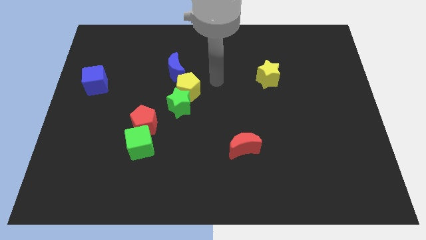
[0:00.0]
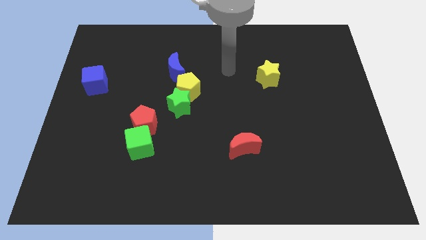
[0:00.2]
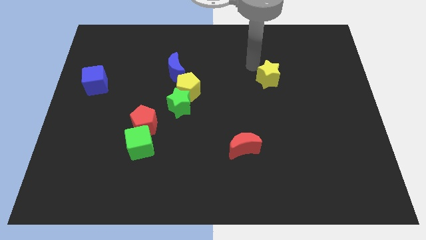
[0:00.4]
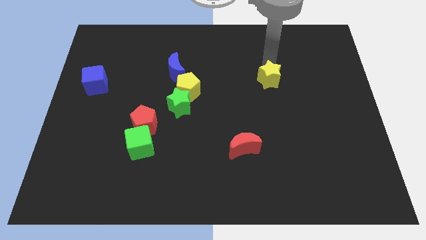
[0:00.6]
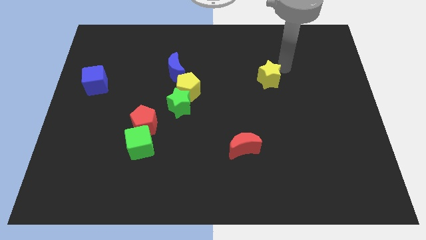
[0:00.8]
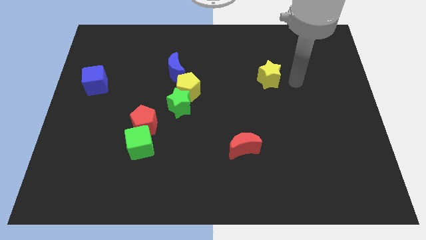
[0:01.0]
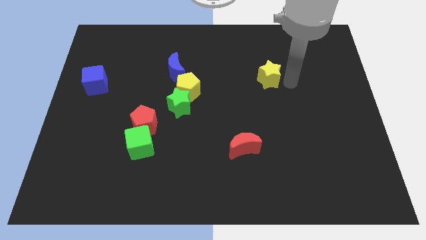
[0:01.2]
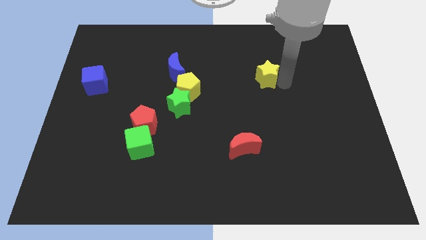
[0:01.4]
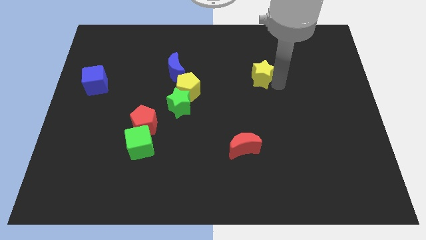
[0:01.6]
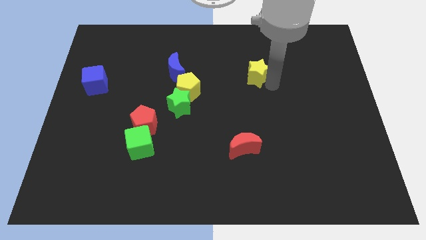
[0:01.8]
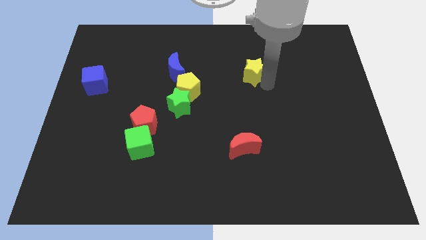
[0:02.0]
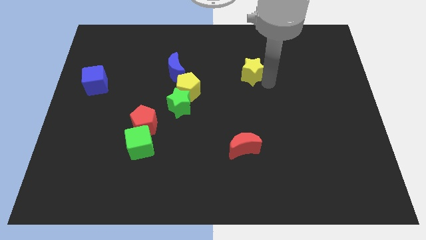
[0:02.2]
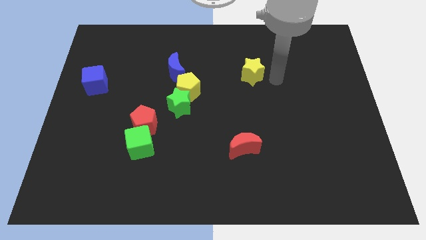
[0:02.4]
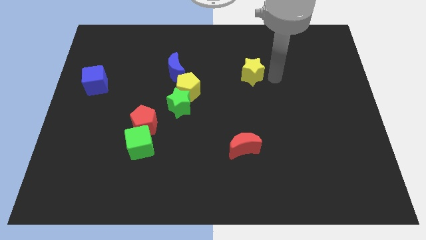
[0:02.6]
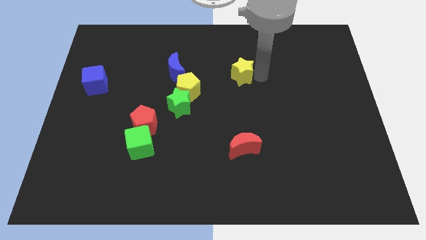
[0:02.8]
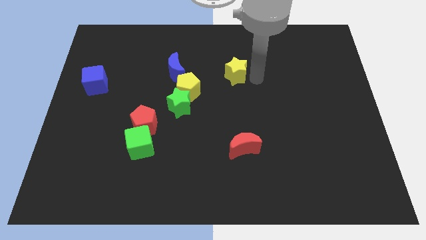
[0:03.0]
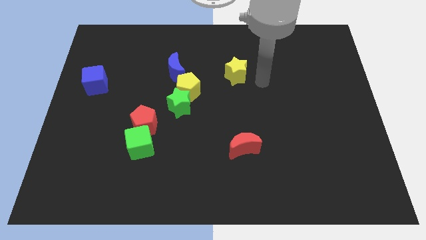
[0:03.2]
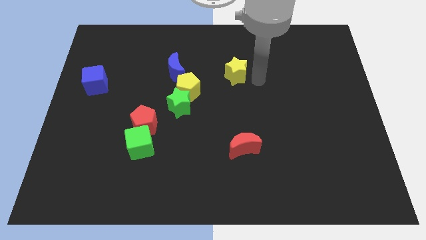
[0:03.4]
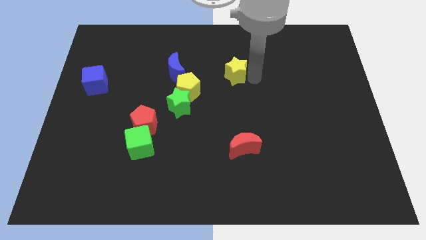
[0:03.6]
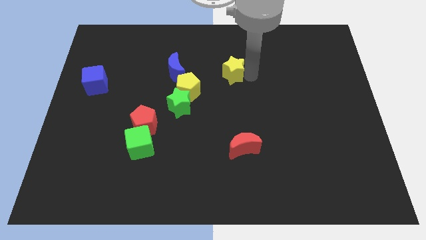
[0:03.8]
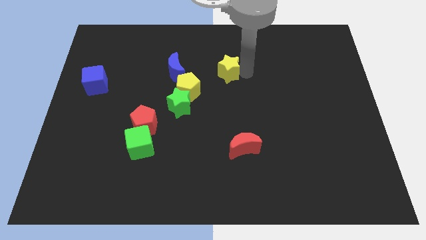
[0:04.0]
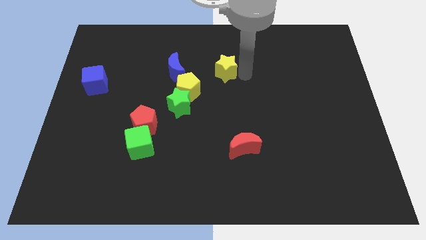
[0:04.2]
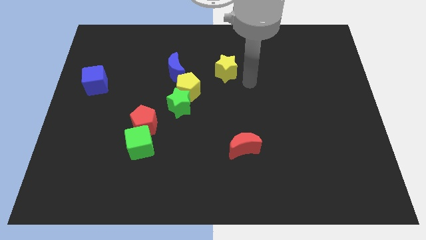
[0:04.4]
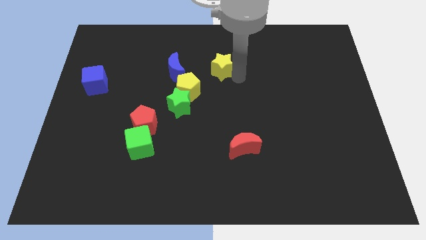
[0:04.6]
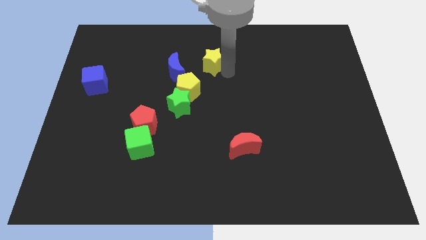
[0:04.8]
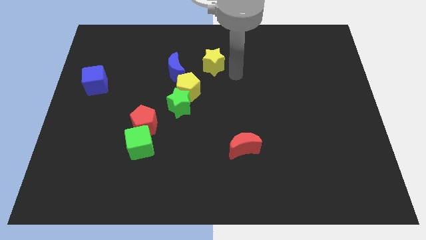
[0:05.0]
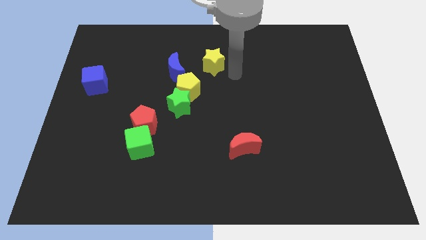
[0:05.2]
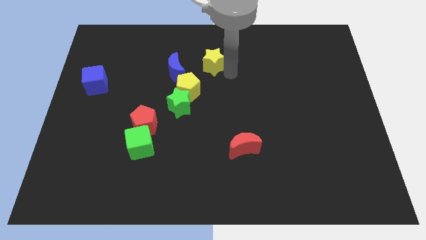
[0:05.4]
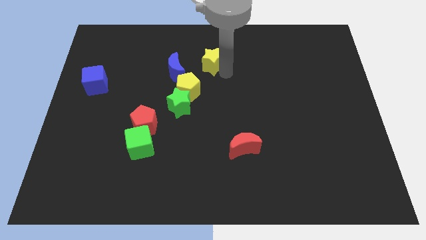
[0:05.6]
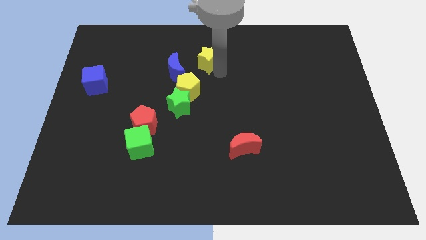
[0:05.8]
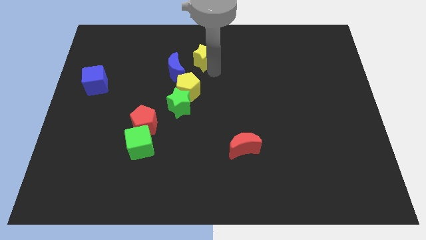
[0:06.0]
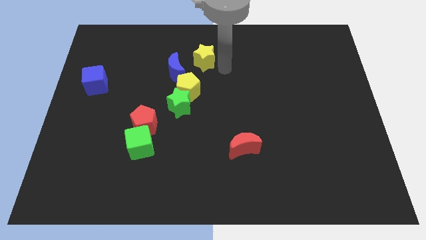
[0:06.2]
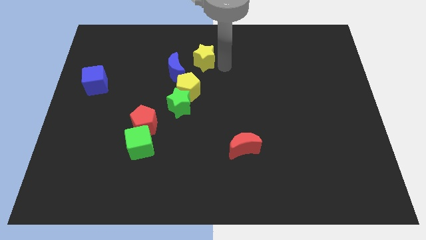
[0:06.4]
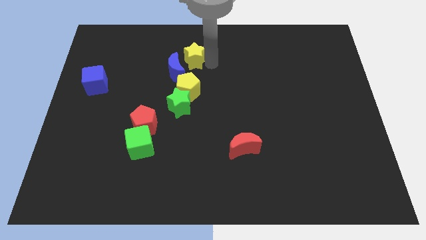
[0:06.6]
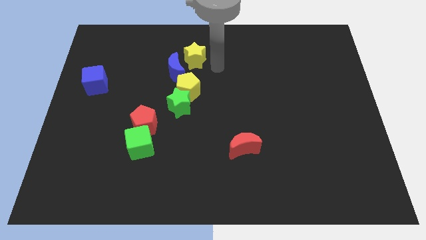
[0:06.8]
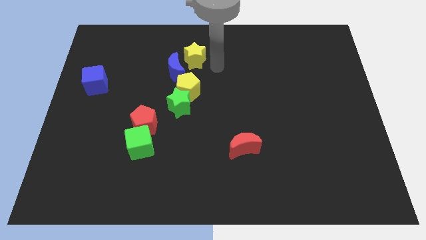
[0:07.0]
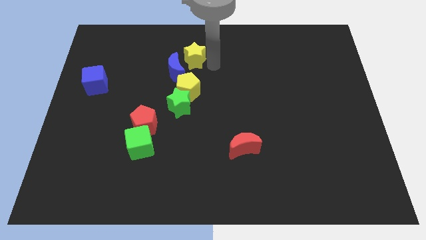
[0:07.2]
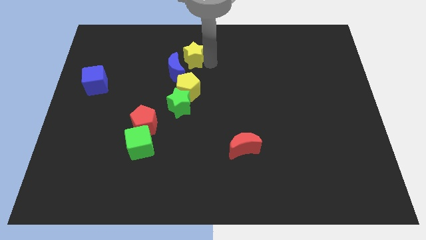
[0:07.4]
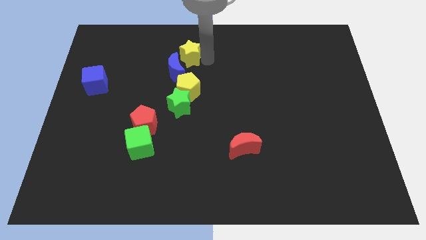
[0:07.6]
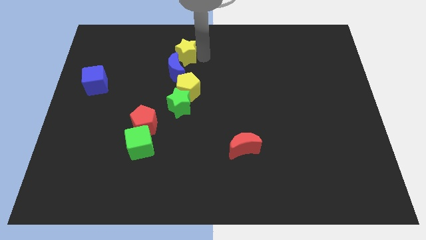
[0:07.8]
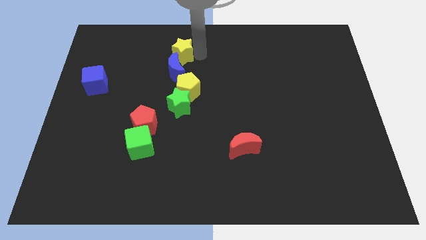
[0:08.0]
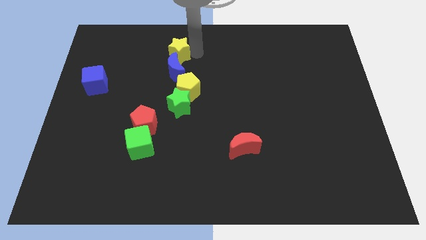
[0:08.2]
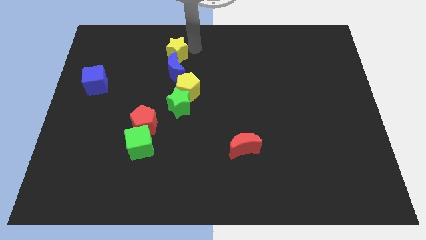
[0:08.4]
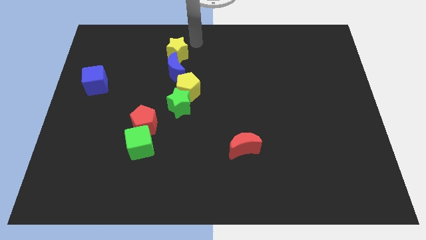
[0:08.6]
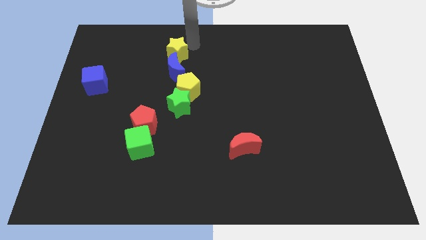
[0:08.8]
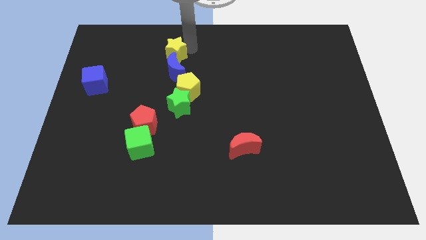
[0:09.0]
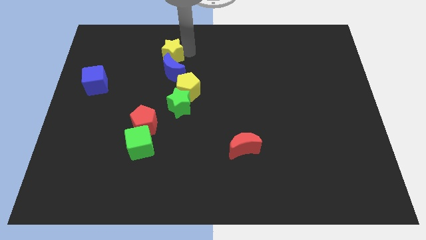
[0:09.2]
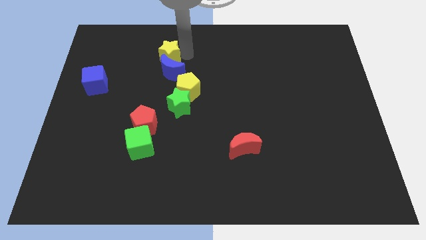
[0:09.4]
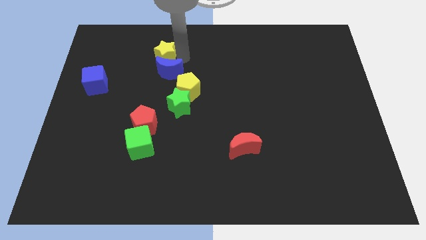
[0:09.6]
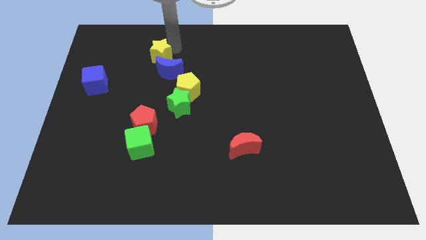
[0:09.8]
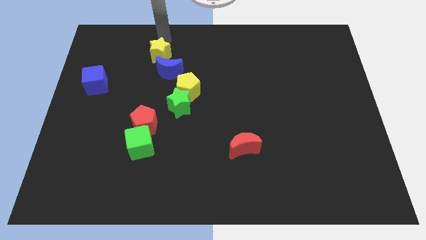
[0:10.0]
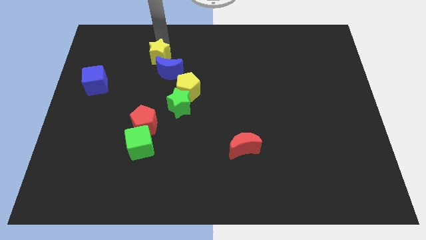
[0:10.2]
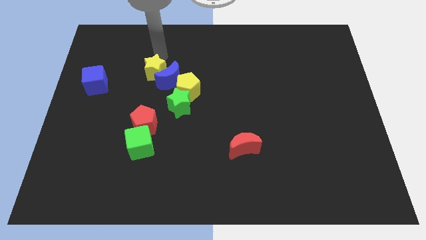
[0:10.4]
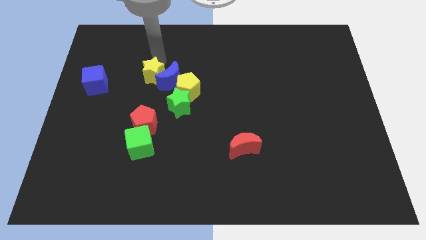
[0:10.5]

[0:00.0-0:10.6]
push the yellow star diagonally up and to the left of the green star

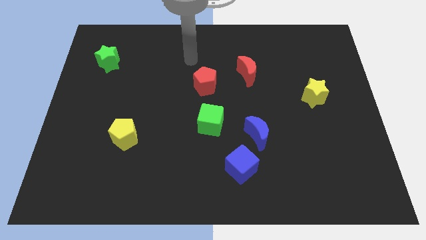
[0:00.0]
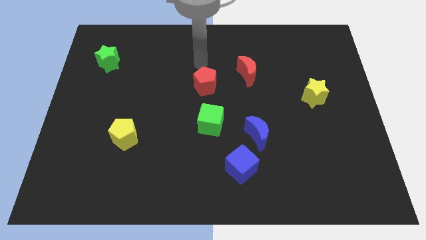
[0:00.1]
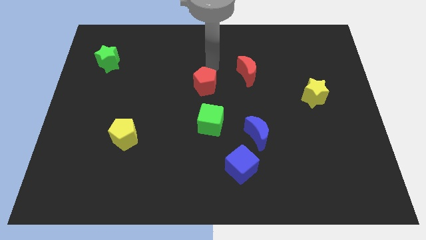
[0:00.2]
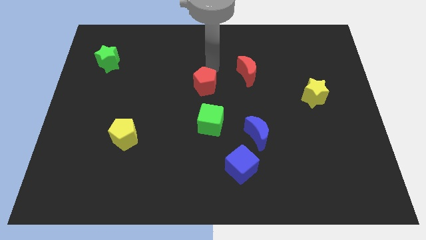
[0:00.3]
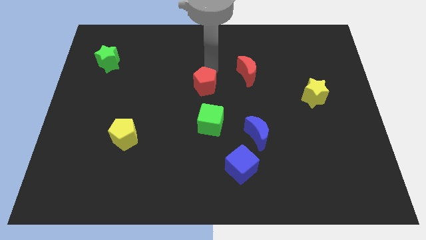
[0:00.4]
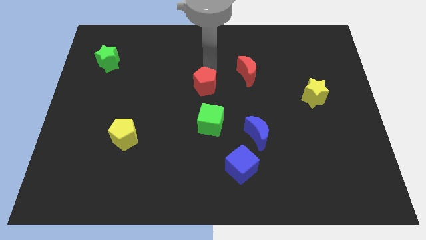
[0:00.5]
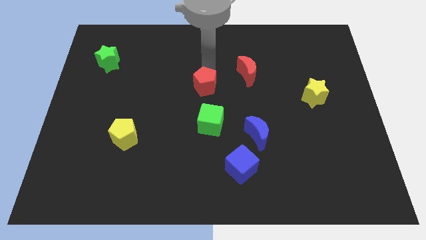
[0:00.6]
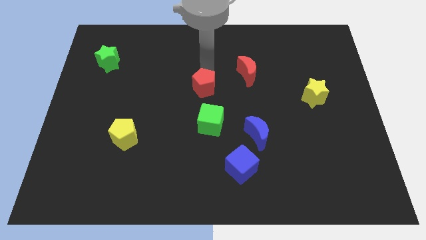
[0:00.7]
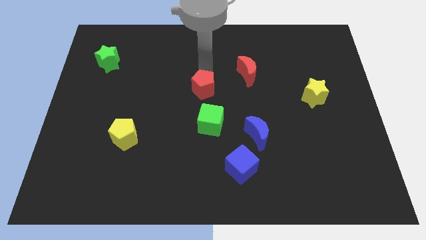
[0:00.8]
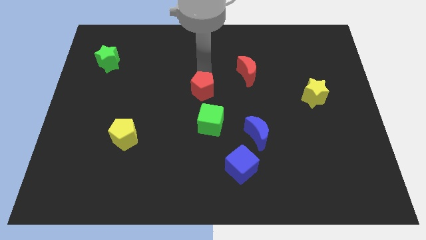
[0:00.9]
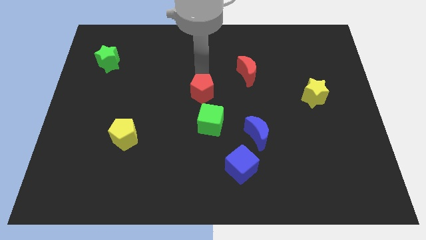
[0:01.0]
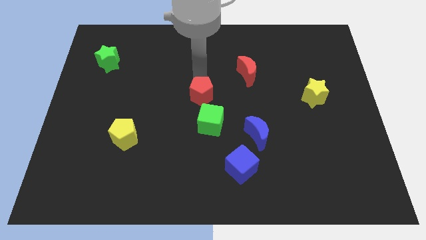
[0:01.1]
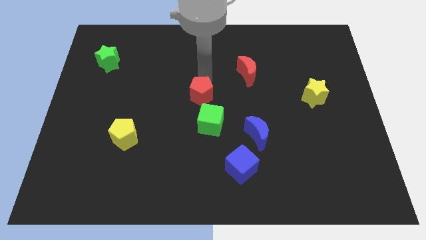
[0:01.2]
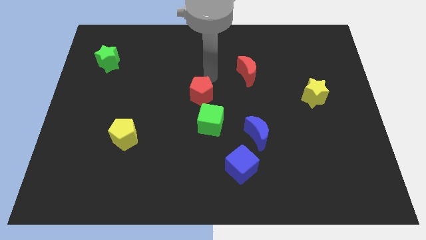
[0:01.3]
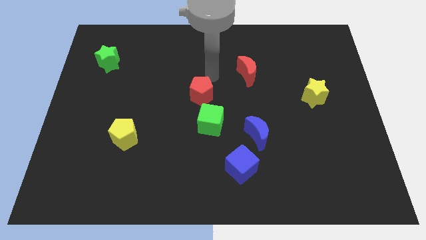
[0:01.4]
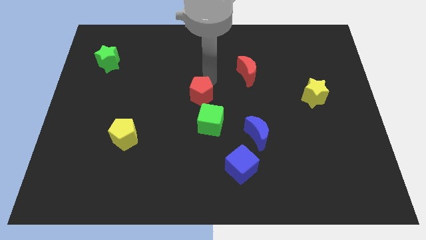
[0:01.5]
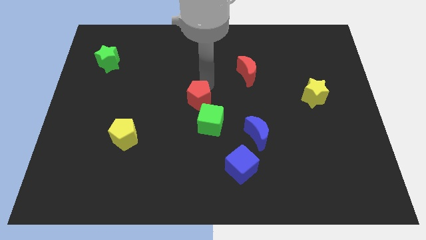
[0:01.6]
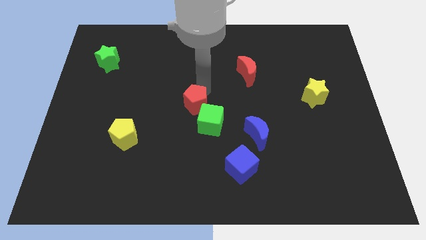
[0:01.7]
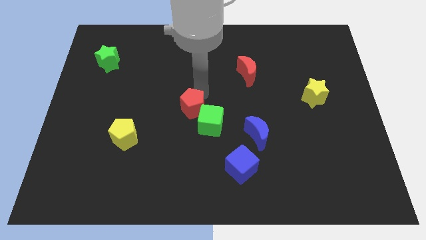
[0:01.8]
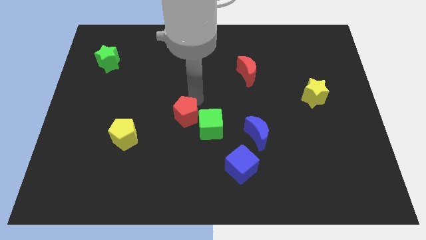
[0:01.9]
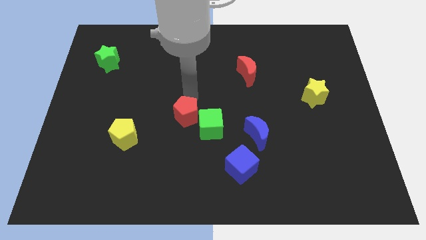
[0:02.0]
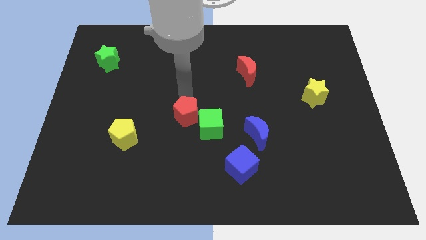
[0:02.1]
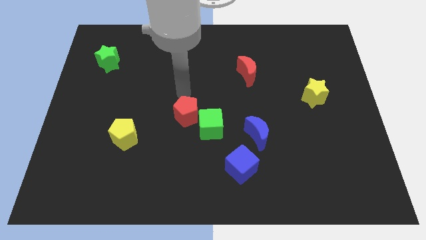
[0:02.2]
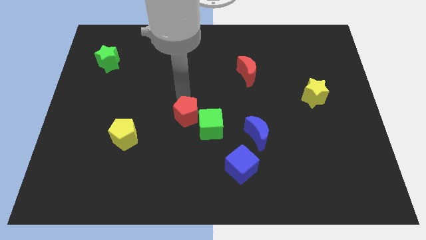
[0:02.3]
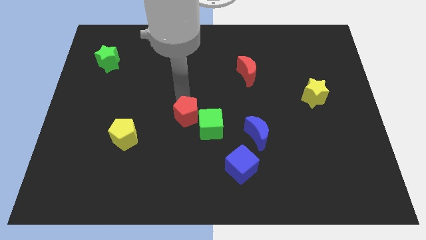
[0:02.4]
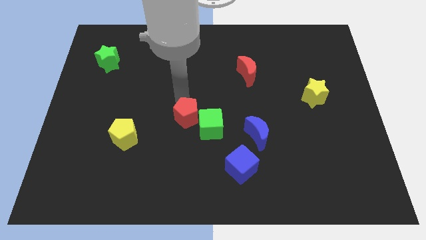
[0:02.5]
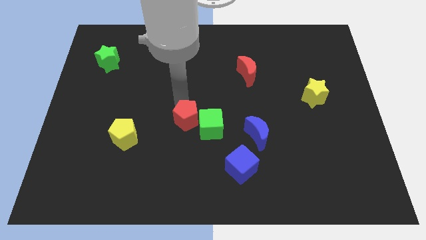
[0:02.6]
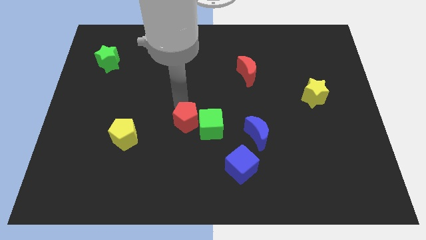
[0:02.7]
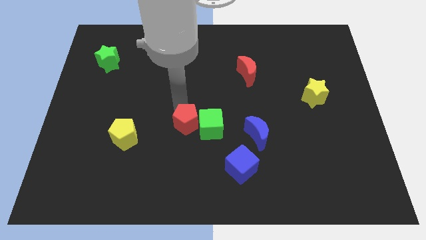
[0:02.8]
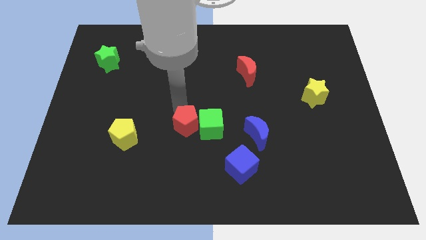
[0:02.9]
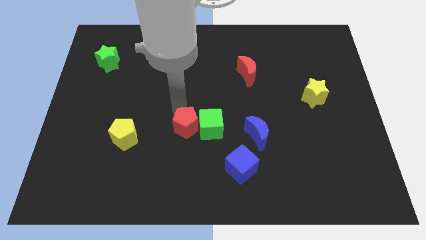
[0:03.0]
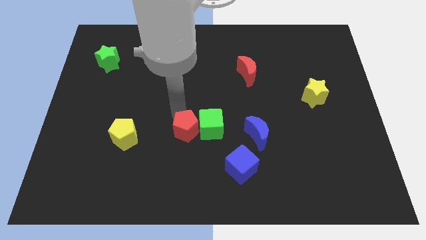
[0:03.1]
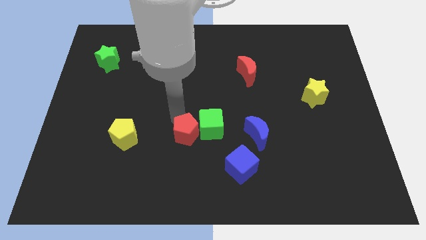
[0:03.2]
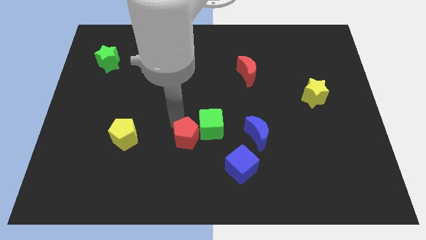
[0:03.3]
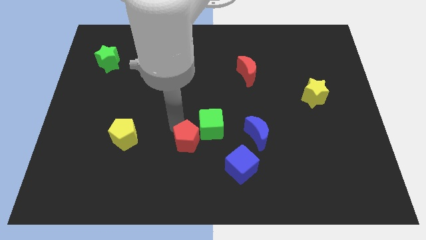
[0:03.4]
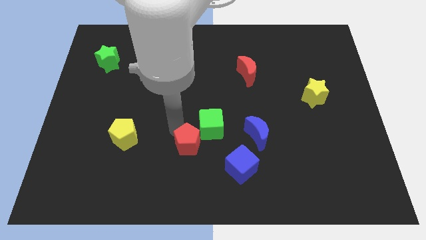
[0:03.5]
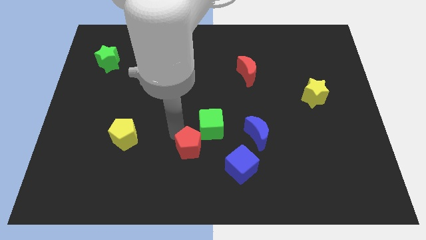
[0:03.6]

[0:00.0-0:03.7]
move the red pentagon to the bottom of the green cube
